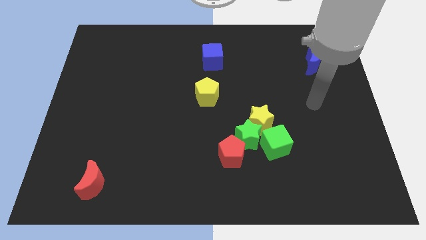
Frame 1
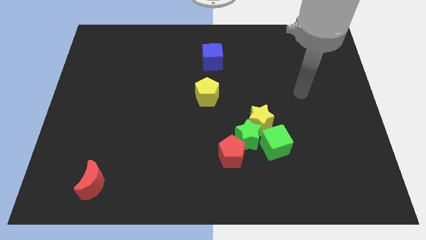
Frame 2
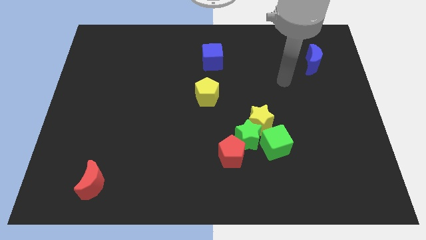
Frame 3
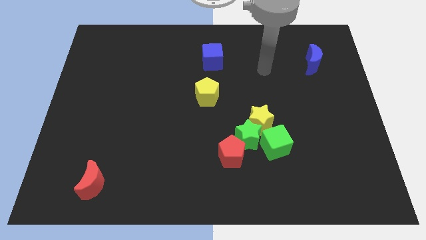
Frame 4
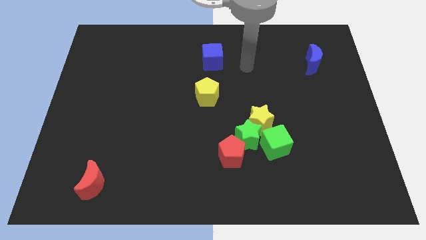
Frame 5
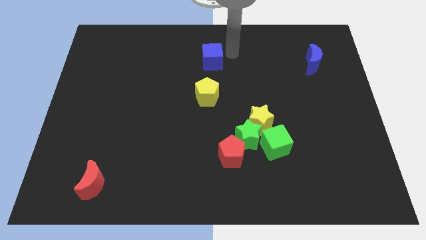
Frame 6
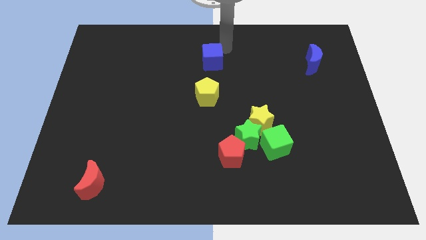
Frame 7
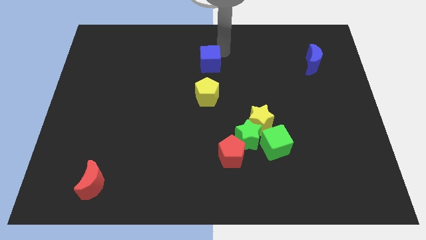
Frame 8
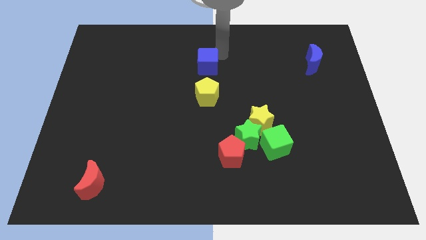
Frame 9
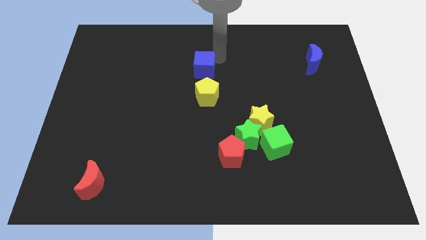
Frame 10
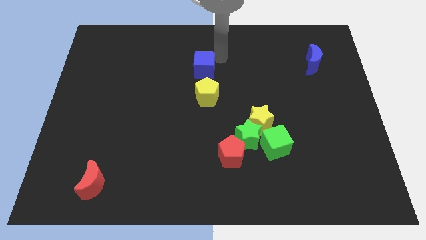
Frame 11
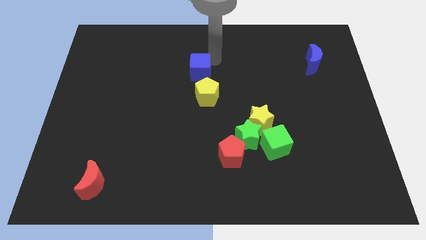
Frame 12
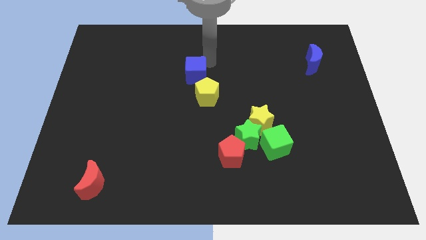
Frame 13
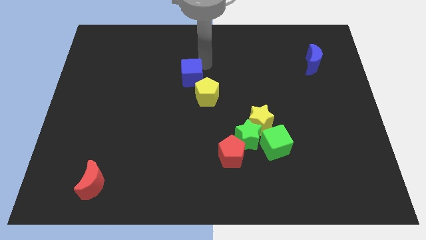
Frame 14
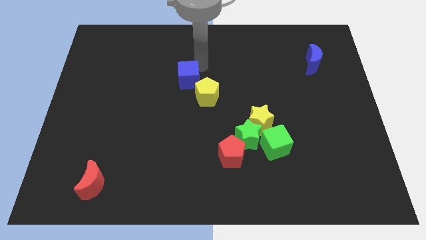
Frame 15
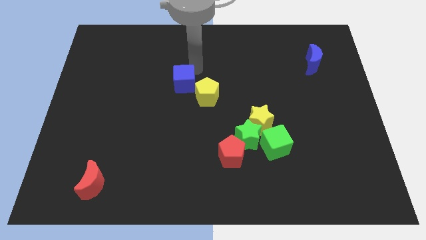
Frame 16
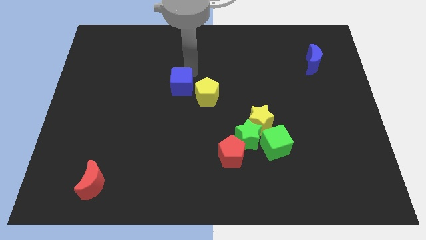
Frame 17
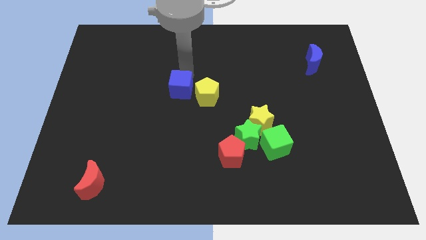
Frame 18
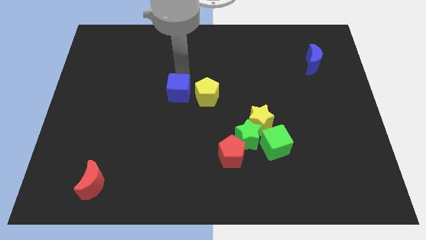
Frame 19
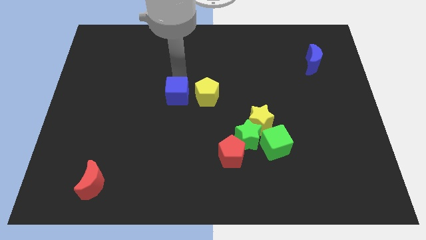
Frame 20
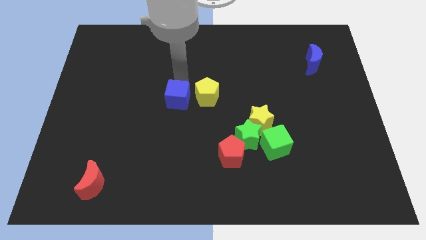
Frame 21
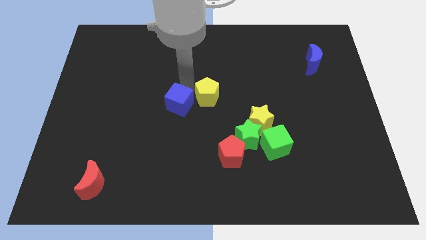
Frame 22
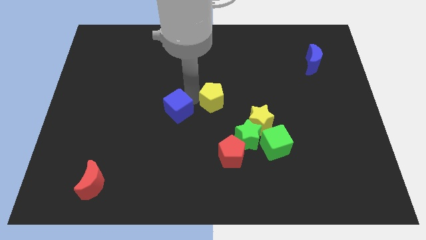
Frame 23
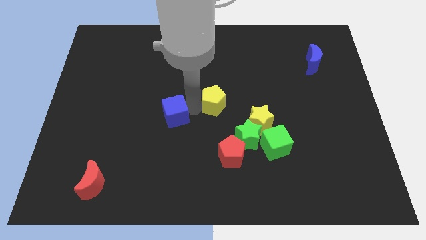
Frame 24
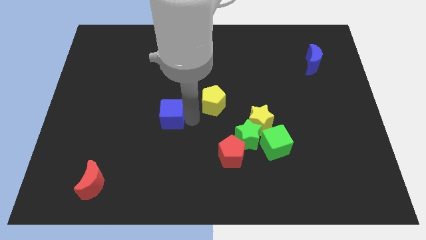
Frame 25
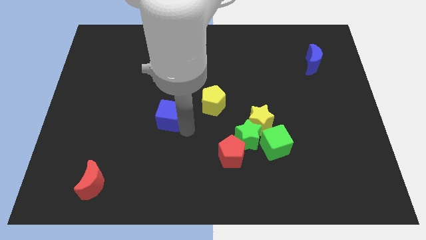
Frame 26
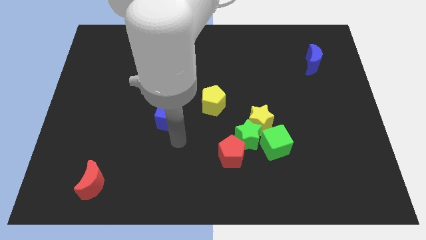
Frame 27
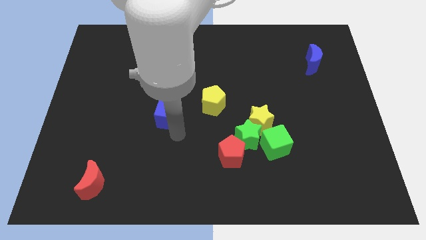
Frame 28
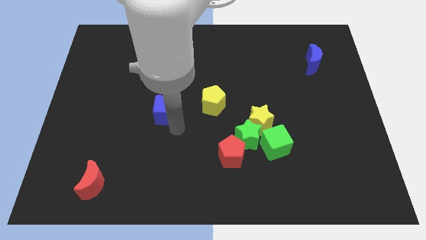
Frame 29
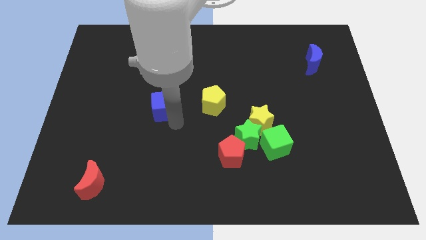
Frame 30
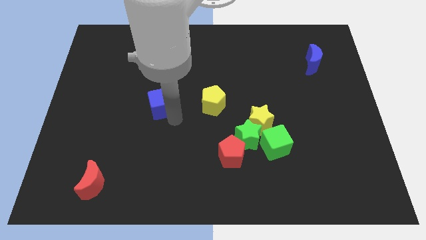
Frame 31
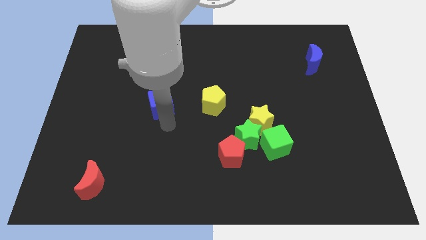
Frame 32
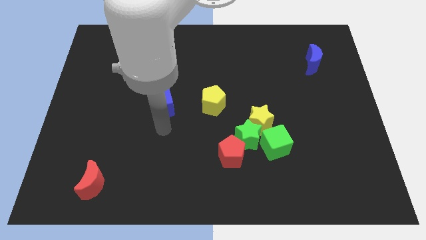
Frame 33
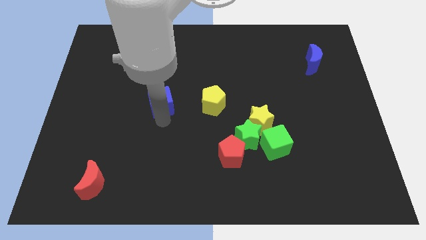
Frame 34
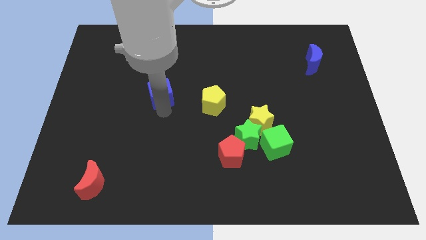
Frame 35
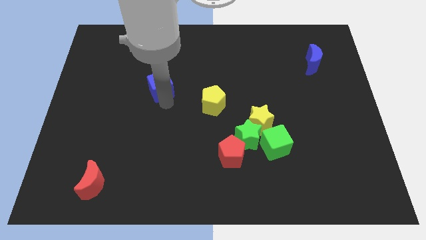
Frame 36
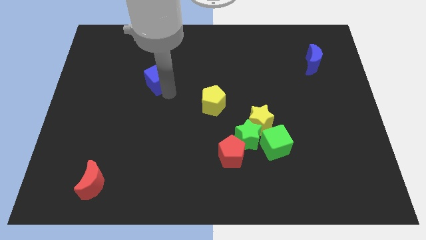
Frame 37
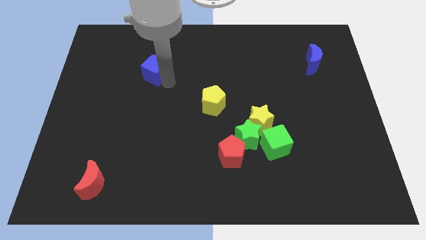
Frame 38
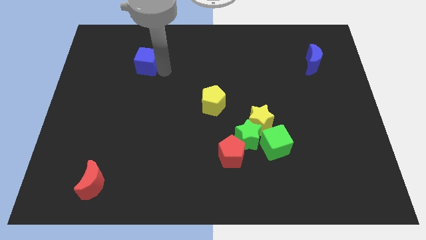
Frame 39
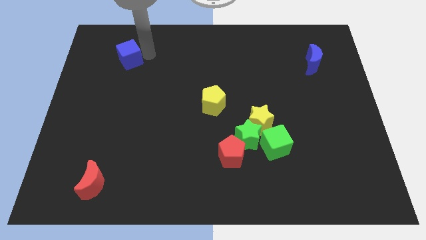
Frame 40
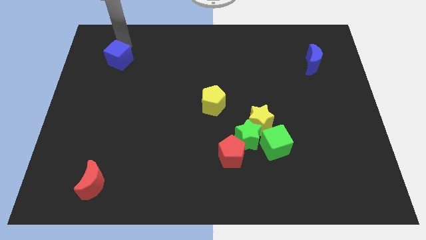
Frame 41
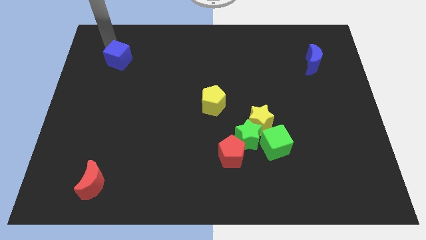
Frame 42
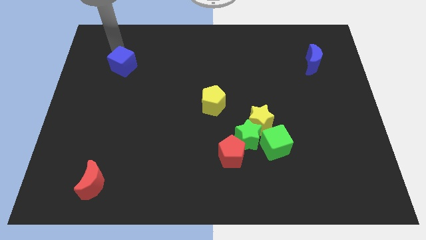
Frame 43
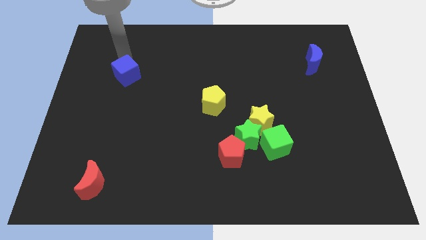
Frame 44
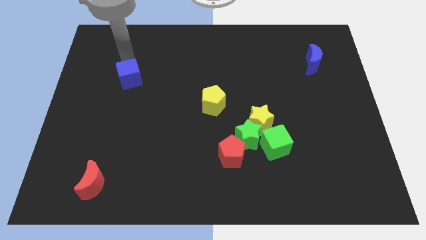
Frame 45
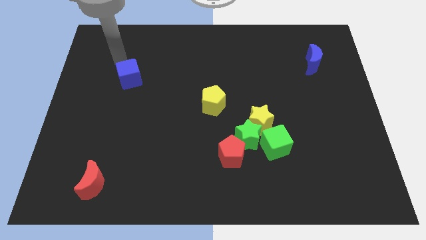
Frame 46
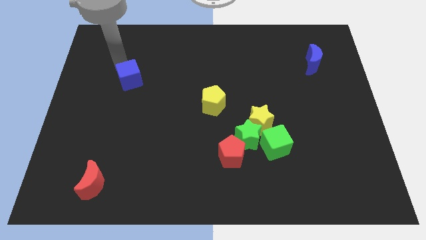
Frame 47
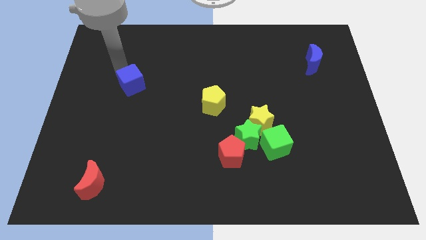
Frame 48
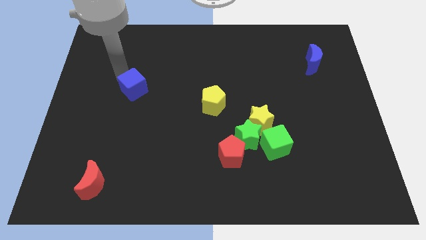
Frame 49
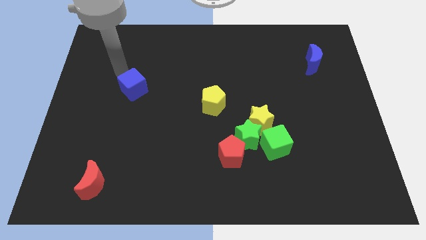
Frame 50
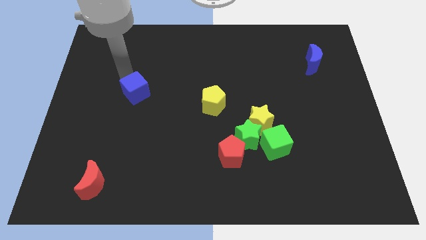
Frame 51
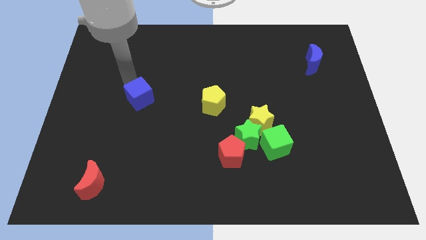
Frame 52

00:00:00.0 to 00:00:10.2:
move the blue cube downwards and then left

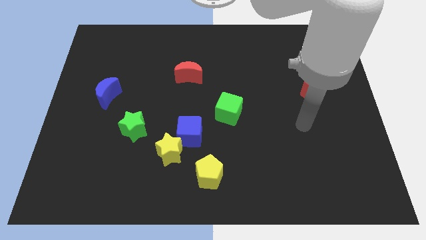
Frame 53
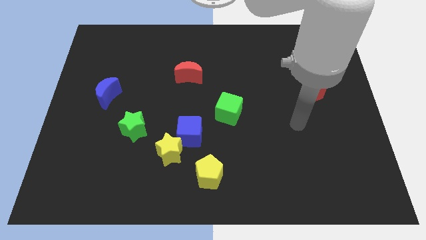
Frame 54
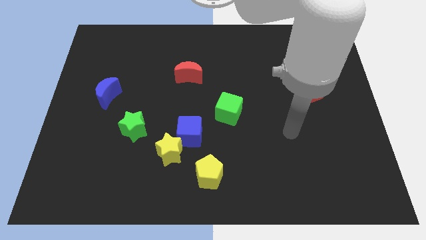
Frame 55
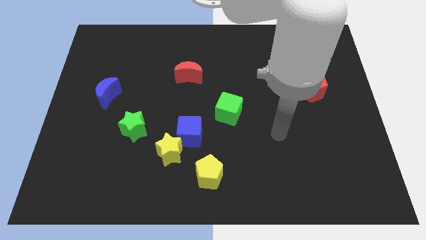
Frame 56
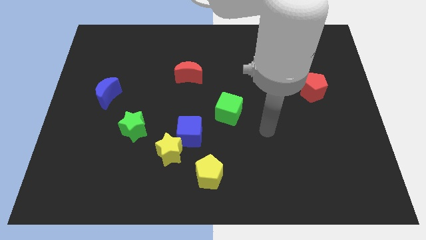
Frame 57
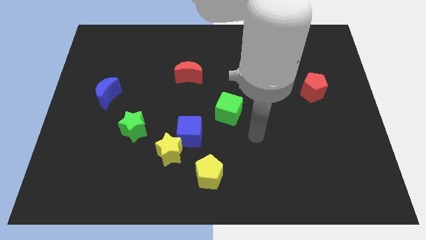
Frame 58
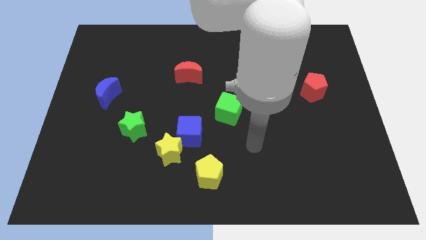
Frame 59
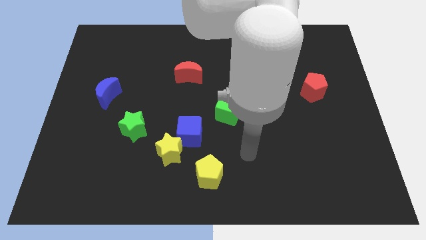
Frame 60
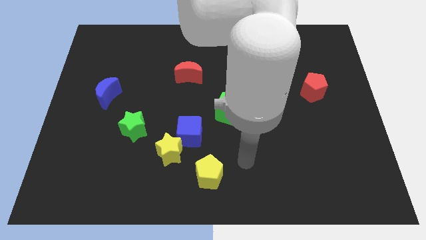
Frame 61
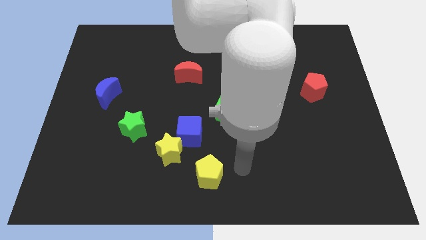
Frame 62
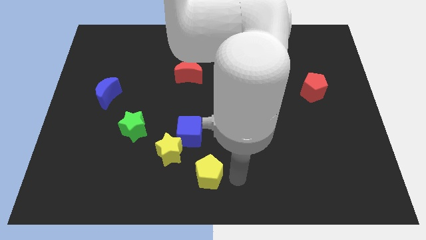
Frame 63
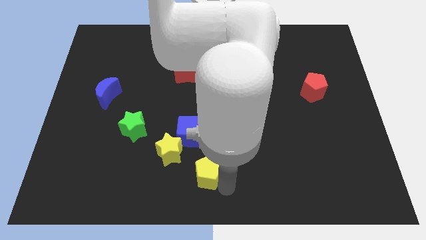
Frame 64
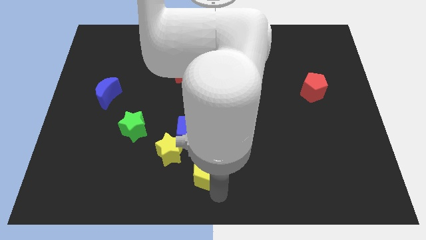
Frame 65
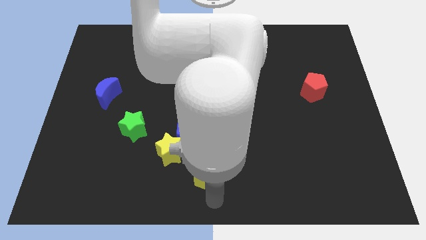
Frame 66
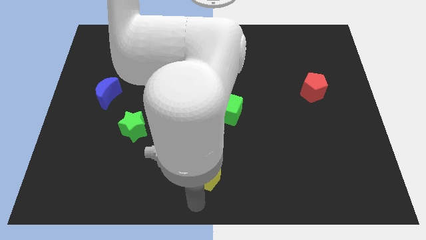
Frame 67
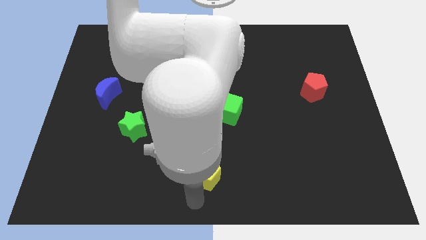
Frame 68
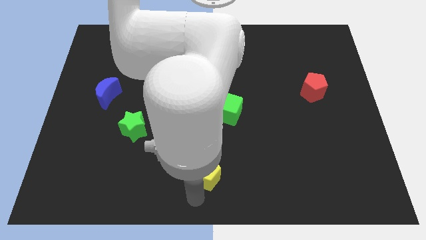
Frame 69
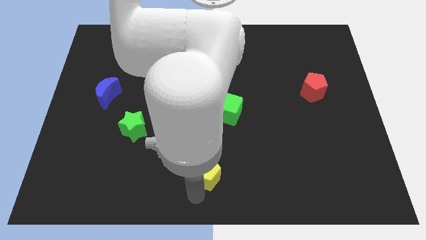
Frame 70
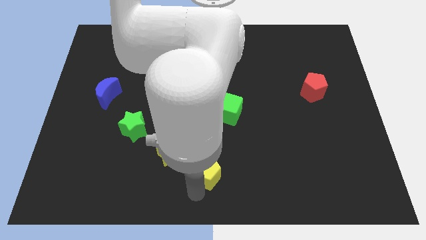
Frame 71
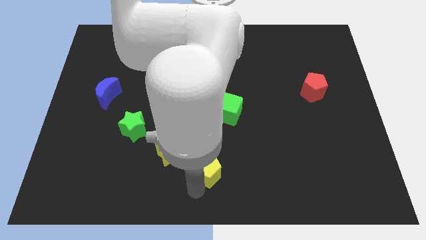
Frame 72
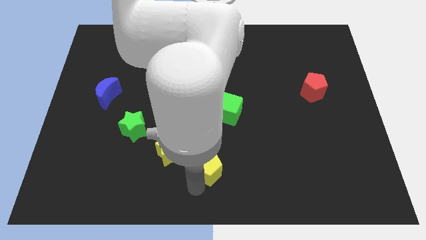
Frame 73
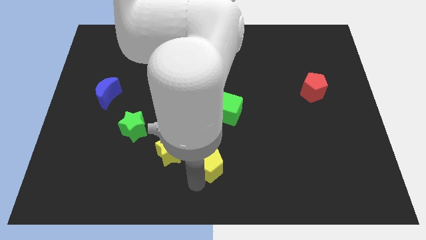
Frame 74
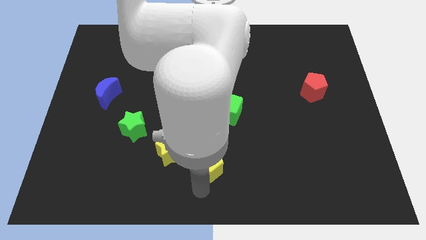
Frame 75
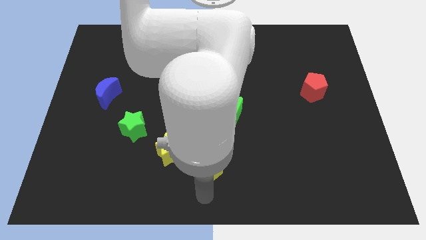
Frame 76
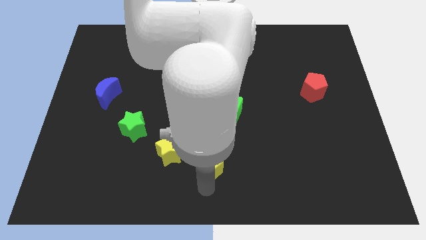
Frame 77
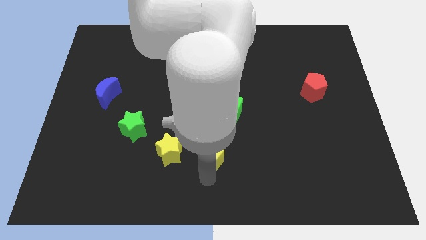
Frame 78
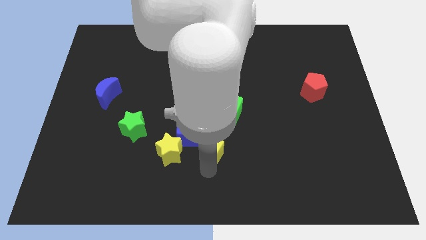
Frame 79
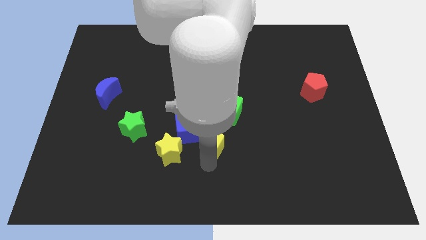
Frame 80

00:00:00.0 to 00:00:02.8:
slightly slide the yellow pentagon upwards
